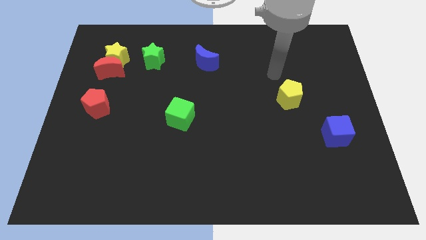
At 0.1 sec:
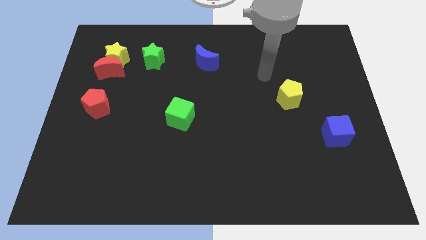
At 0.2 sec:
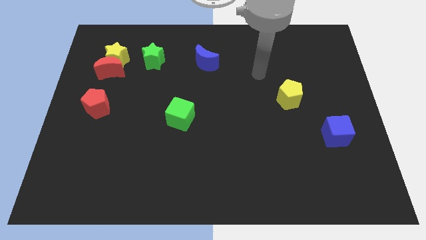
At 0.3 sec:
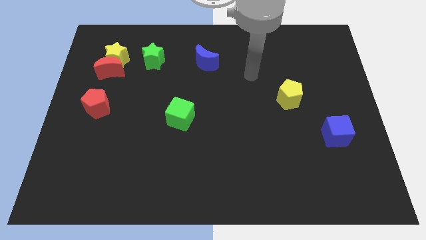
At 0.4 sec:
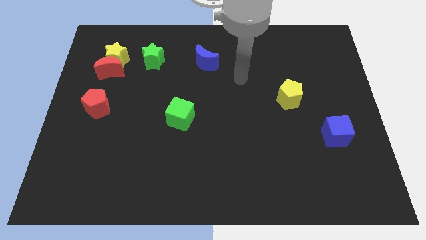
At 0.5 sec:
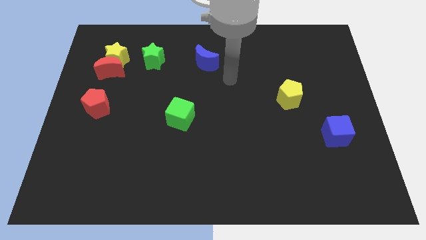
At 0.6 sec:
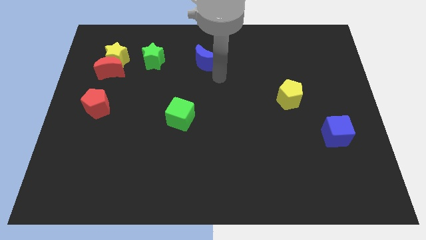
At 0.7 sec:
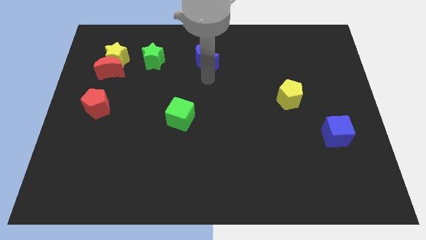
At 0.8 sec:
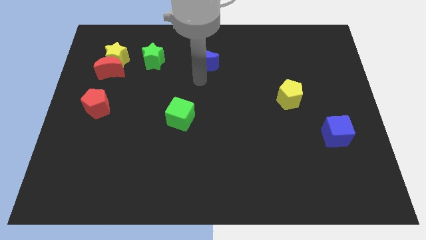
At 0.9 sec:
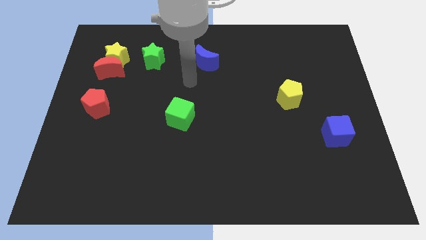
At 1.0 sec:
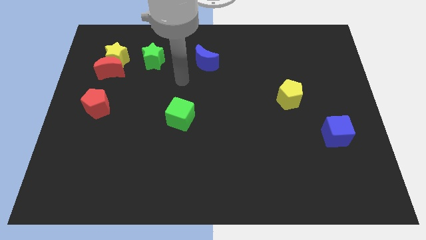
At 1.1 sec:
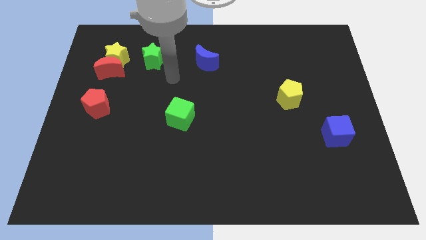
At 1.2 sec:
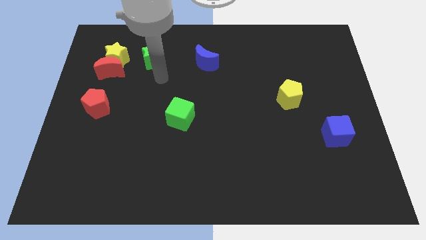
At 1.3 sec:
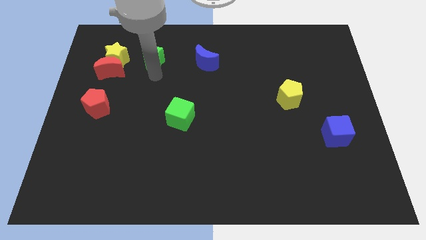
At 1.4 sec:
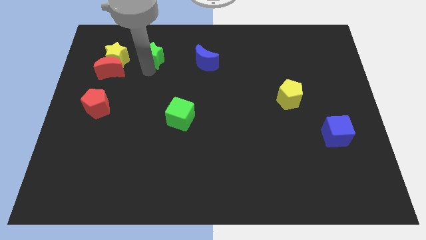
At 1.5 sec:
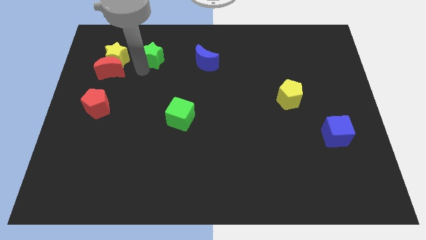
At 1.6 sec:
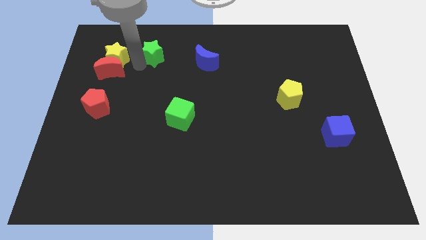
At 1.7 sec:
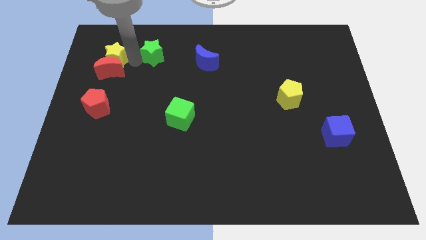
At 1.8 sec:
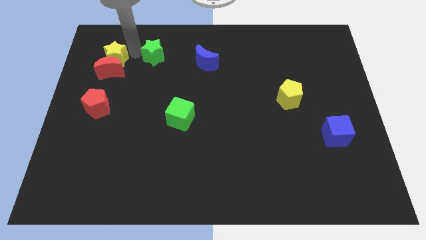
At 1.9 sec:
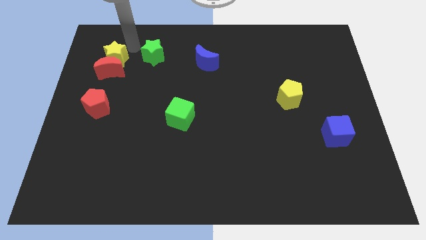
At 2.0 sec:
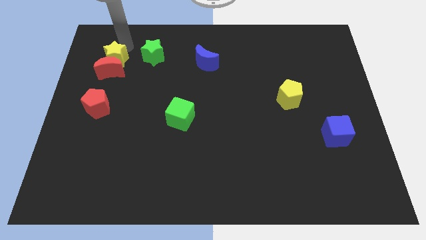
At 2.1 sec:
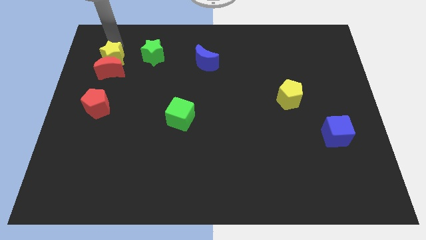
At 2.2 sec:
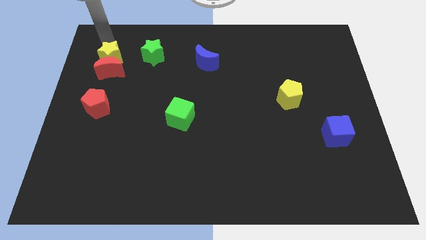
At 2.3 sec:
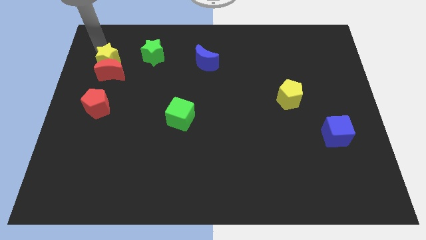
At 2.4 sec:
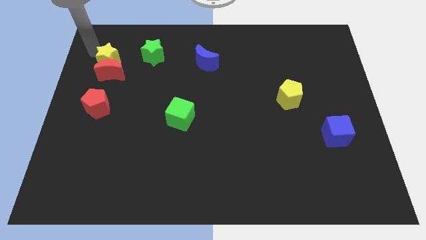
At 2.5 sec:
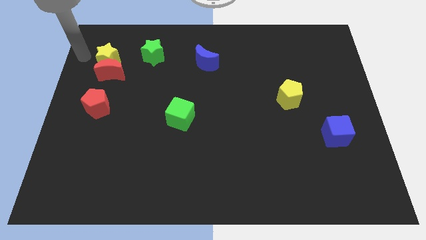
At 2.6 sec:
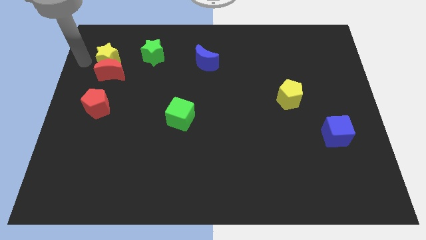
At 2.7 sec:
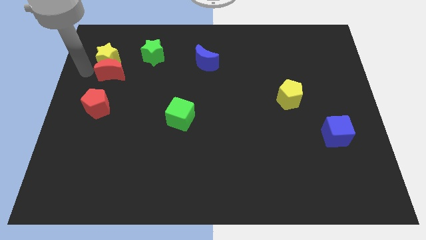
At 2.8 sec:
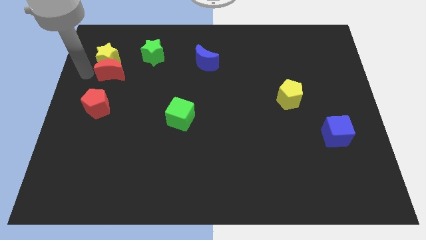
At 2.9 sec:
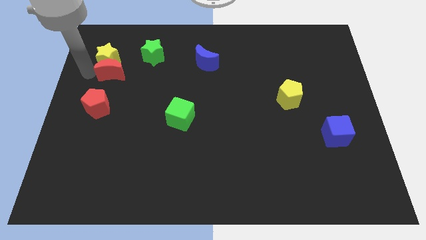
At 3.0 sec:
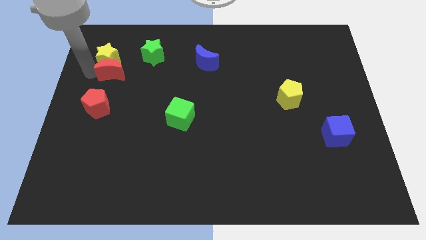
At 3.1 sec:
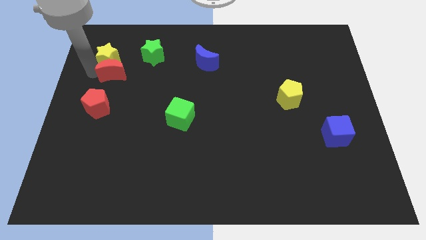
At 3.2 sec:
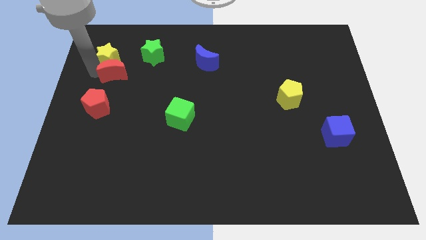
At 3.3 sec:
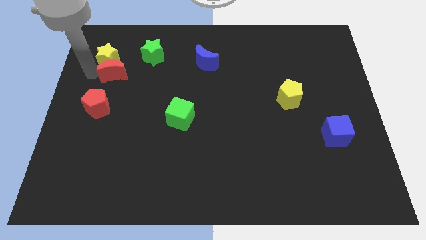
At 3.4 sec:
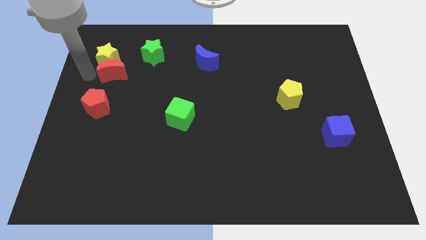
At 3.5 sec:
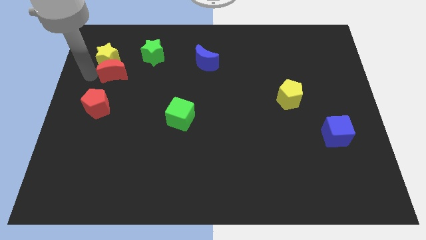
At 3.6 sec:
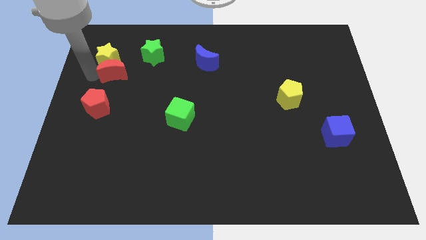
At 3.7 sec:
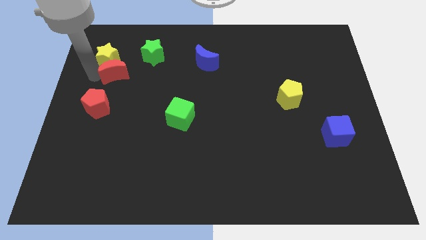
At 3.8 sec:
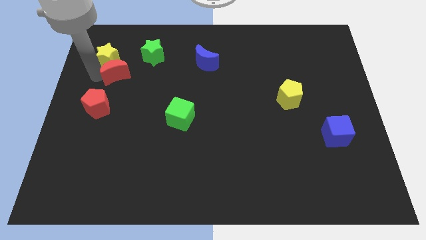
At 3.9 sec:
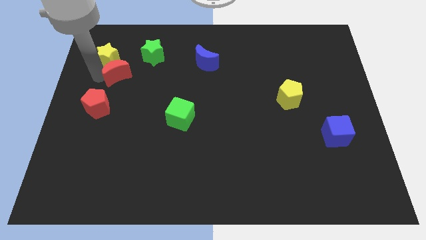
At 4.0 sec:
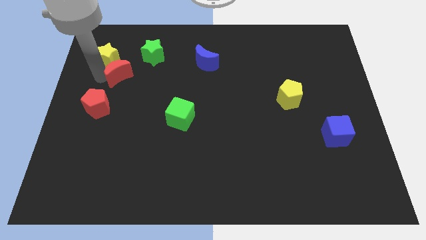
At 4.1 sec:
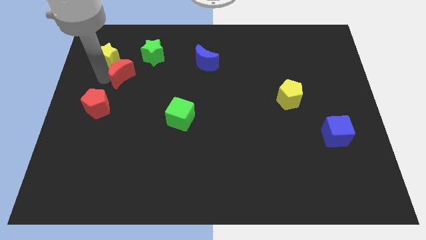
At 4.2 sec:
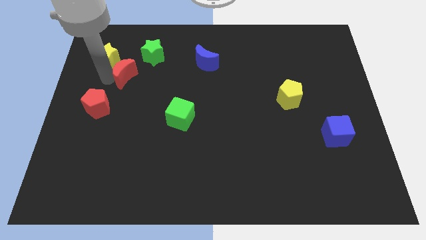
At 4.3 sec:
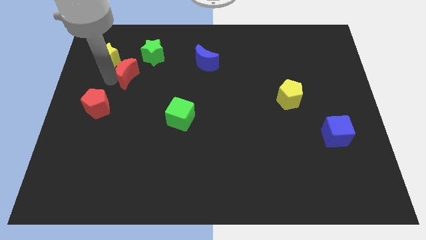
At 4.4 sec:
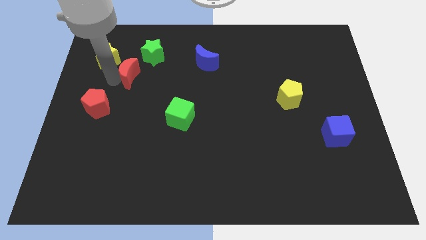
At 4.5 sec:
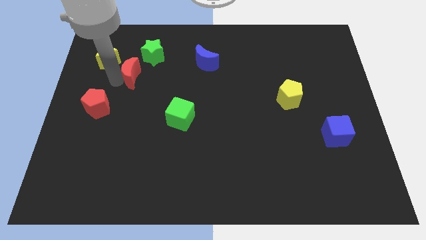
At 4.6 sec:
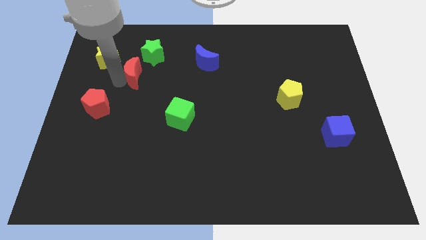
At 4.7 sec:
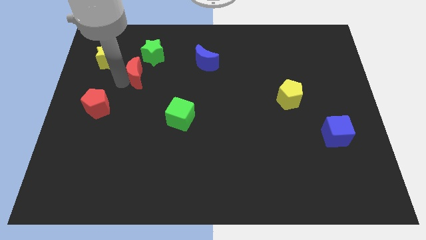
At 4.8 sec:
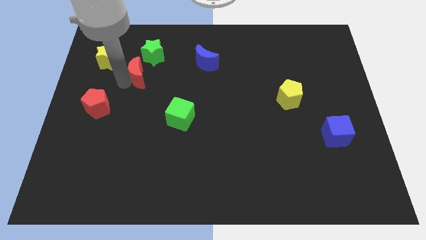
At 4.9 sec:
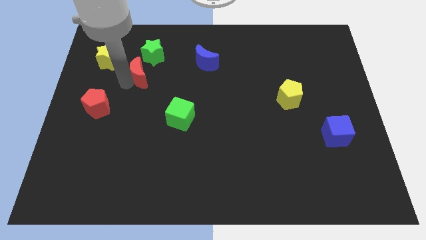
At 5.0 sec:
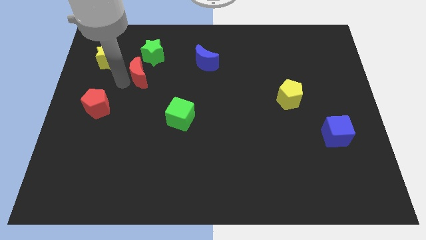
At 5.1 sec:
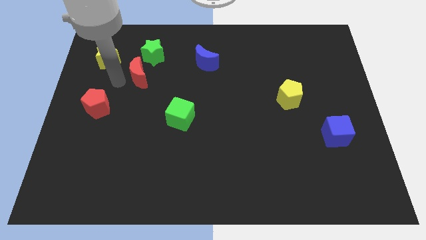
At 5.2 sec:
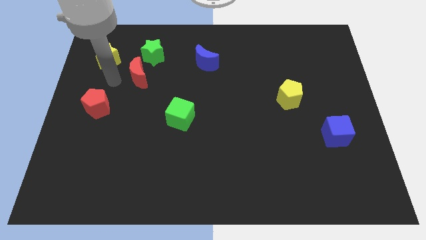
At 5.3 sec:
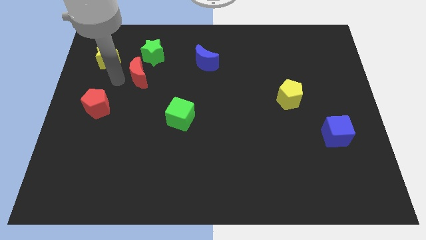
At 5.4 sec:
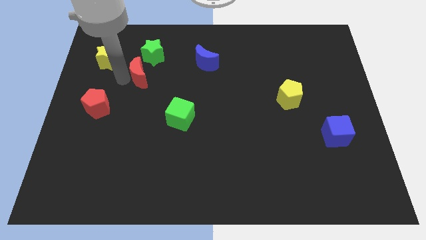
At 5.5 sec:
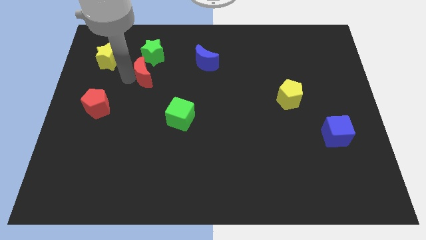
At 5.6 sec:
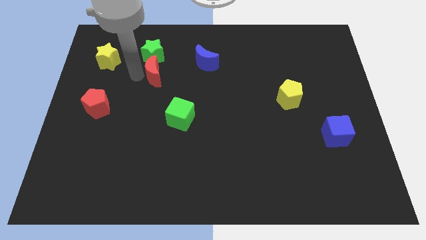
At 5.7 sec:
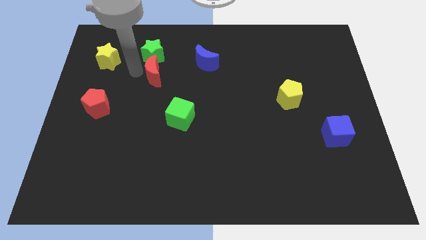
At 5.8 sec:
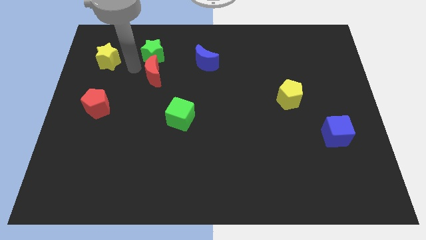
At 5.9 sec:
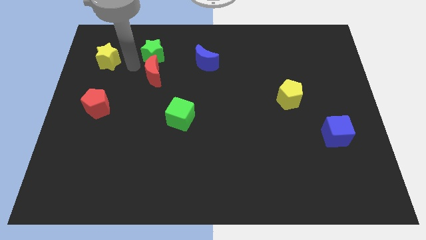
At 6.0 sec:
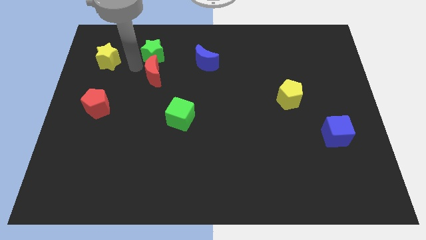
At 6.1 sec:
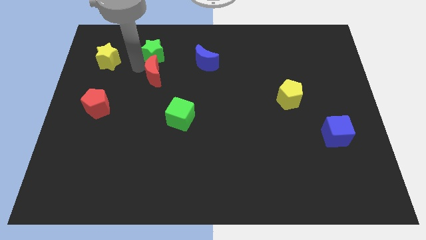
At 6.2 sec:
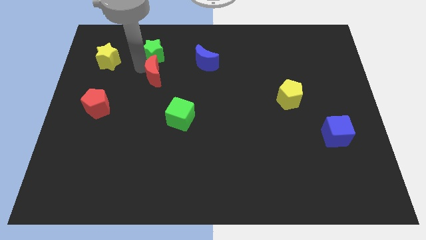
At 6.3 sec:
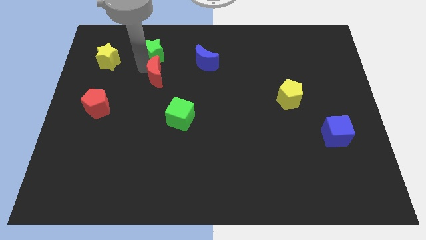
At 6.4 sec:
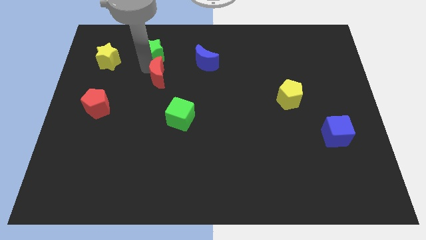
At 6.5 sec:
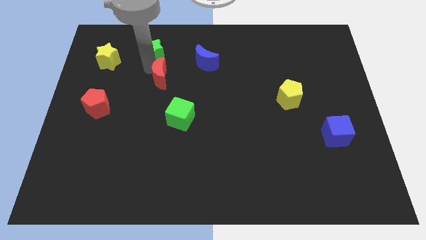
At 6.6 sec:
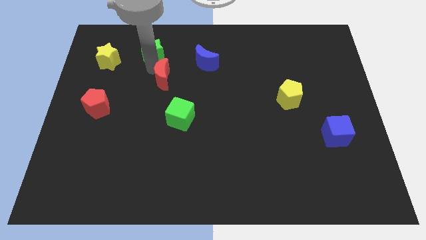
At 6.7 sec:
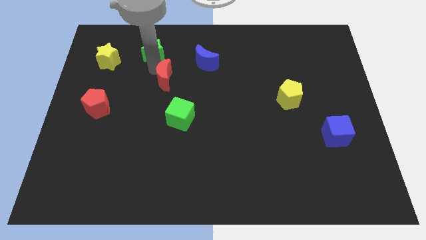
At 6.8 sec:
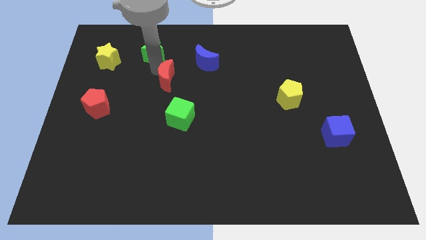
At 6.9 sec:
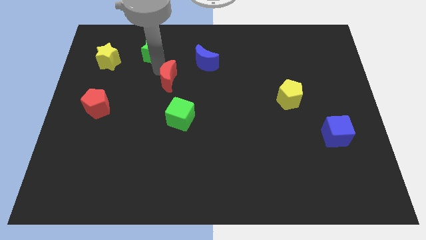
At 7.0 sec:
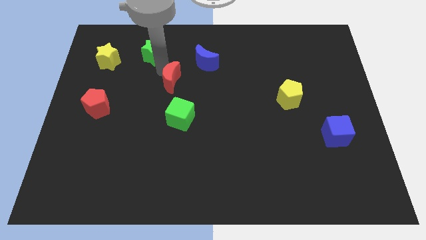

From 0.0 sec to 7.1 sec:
slide the red moon to the middle of the board

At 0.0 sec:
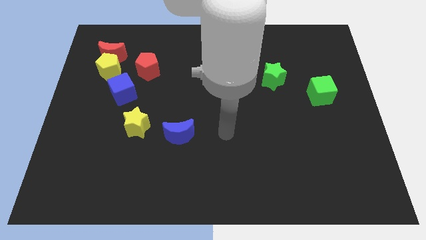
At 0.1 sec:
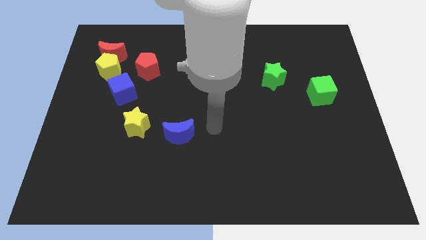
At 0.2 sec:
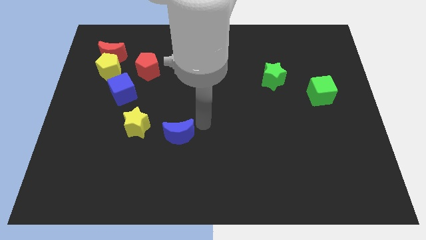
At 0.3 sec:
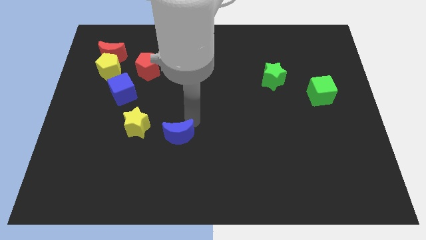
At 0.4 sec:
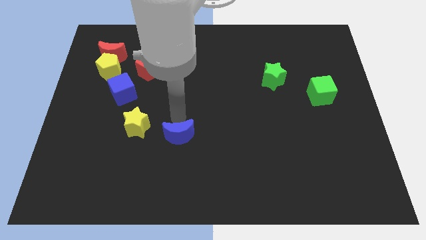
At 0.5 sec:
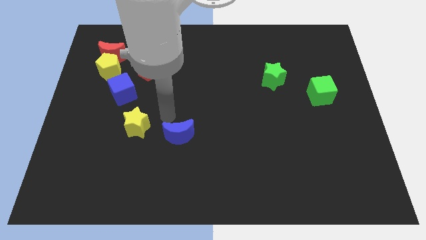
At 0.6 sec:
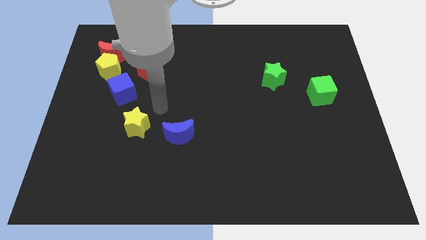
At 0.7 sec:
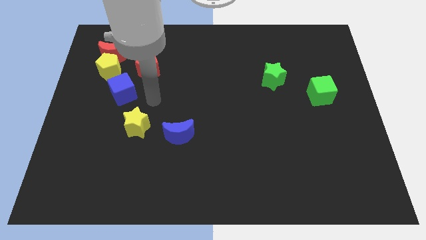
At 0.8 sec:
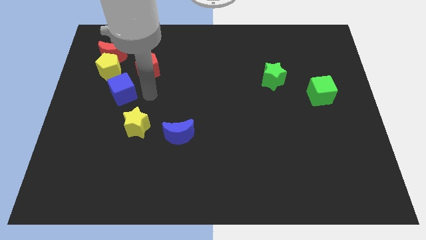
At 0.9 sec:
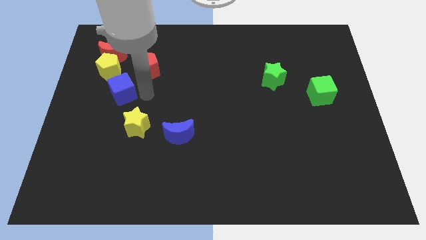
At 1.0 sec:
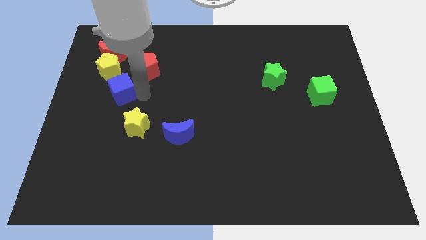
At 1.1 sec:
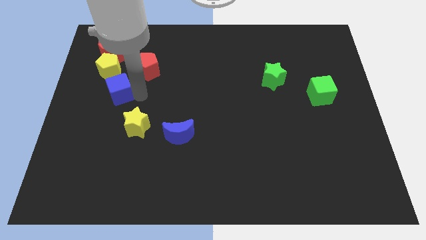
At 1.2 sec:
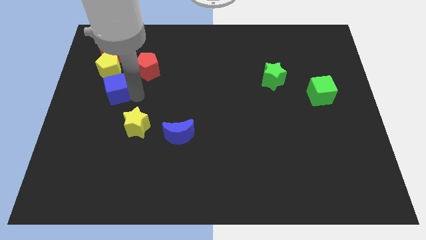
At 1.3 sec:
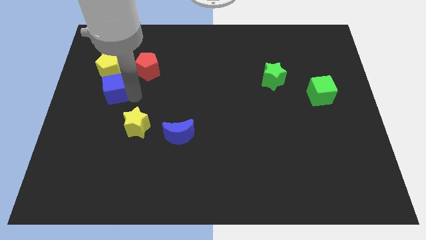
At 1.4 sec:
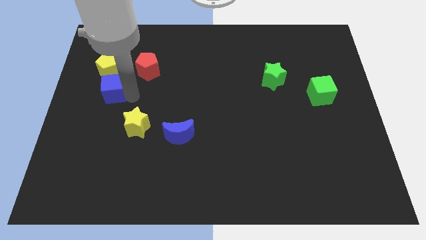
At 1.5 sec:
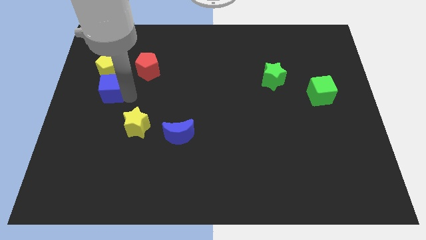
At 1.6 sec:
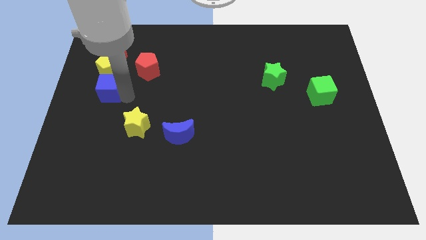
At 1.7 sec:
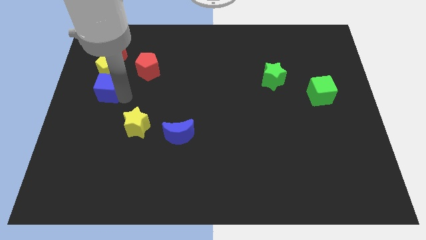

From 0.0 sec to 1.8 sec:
put the blue cube to the center left
